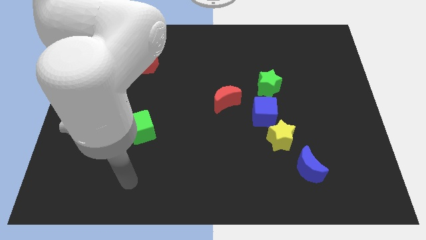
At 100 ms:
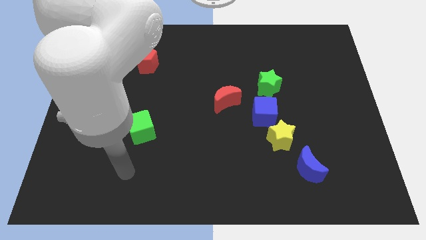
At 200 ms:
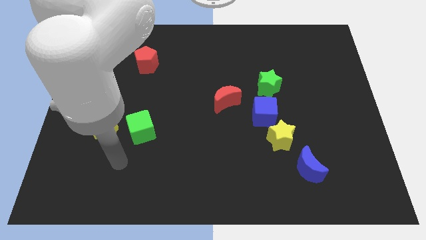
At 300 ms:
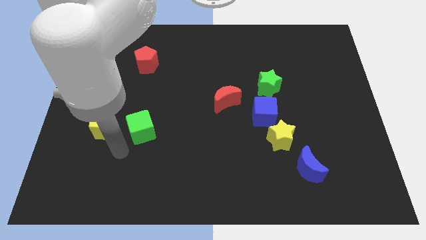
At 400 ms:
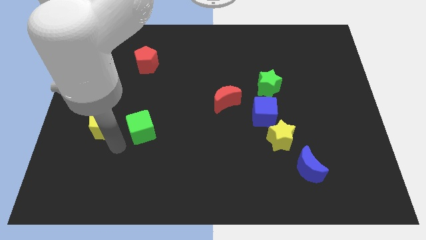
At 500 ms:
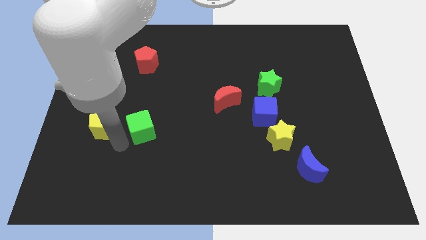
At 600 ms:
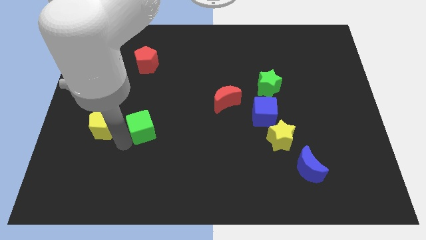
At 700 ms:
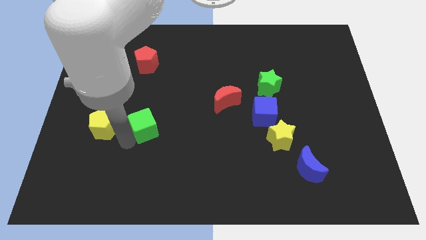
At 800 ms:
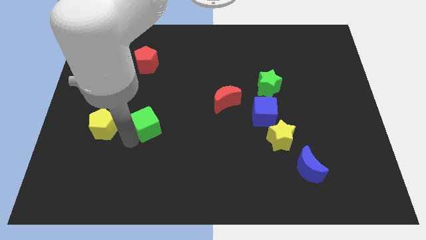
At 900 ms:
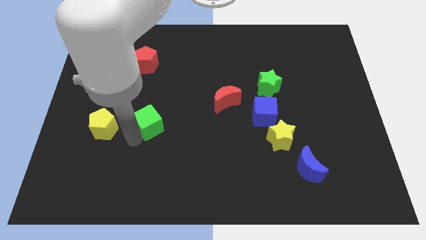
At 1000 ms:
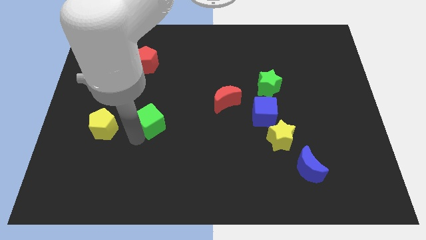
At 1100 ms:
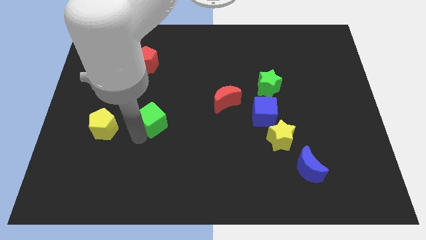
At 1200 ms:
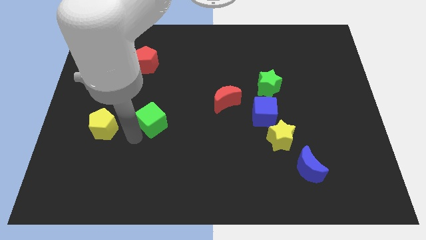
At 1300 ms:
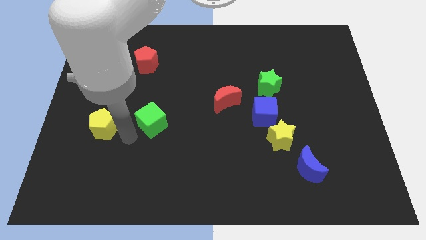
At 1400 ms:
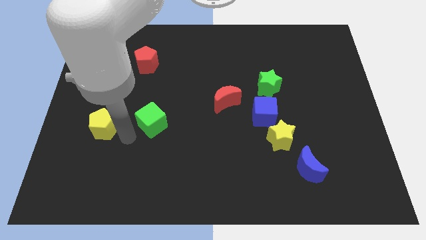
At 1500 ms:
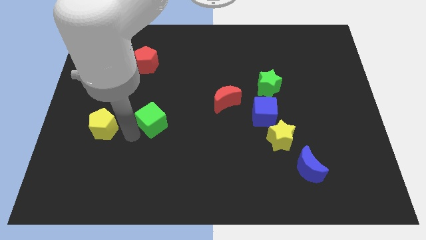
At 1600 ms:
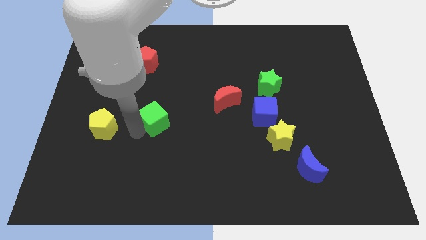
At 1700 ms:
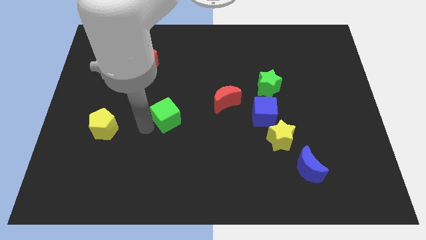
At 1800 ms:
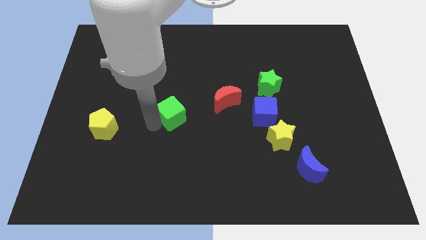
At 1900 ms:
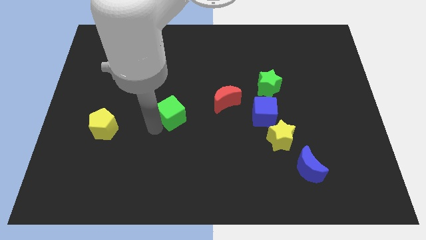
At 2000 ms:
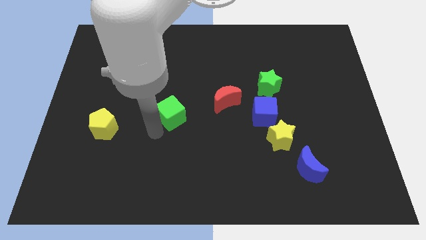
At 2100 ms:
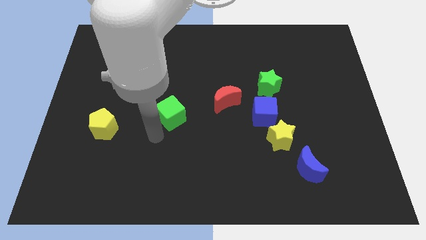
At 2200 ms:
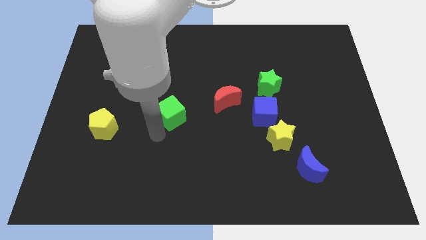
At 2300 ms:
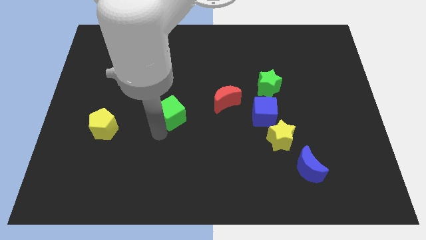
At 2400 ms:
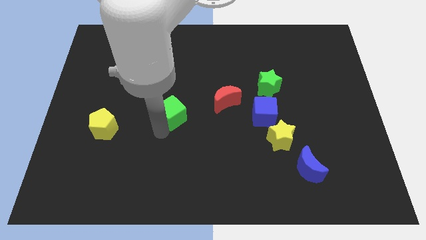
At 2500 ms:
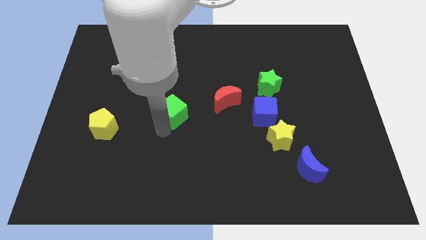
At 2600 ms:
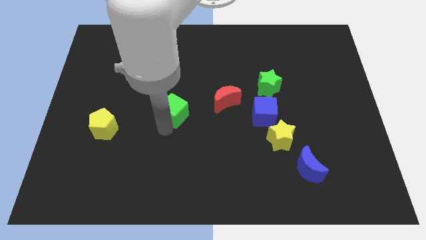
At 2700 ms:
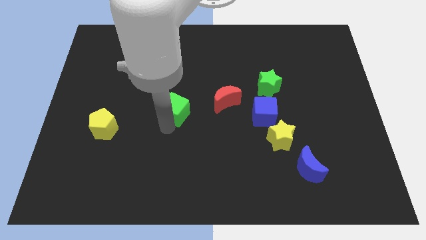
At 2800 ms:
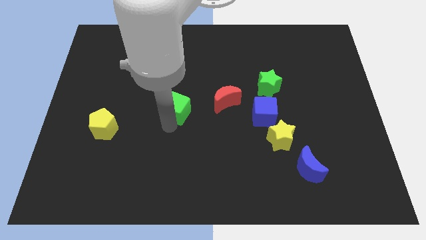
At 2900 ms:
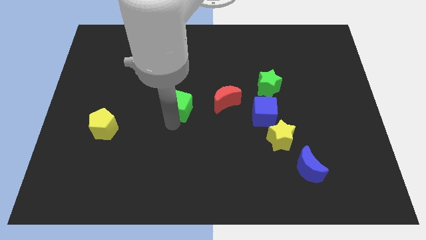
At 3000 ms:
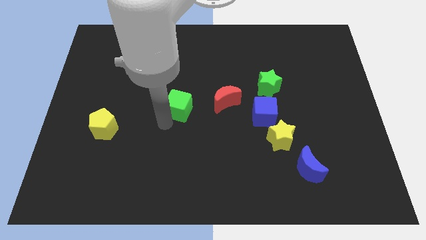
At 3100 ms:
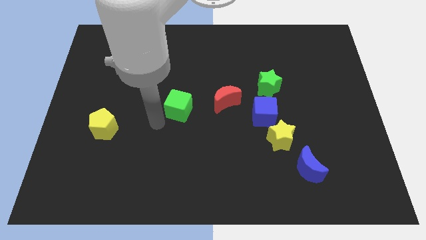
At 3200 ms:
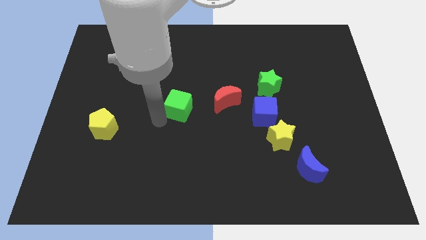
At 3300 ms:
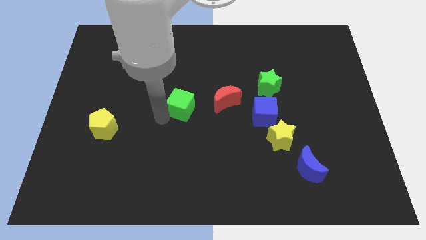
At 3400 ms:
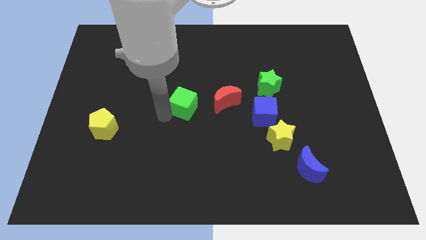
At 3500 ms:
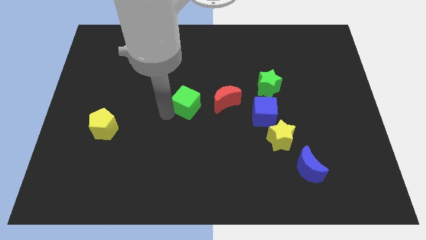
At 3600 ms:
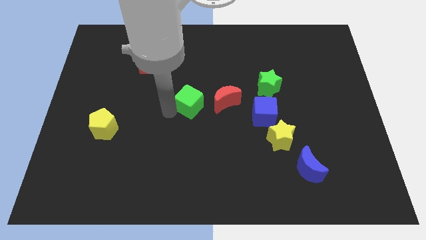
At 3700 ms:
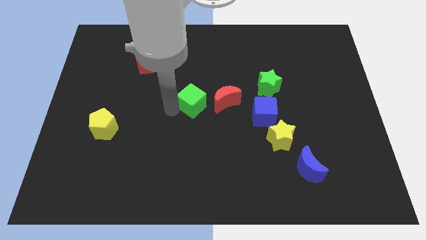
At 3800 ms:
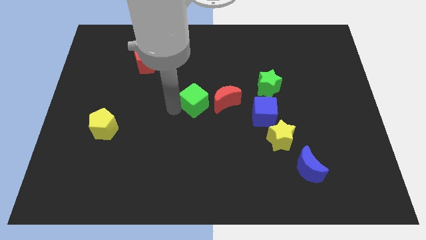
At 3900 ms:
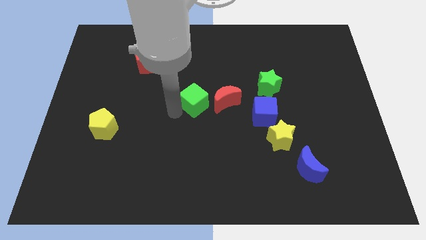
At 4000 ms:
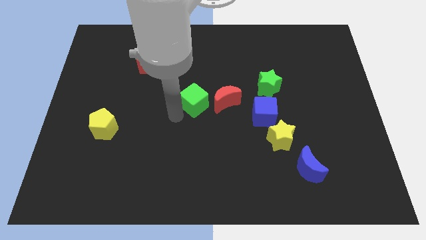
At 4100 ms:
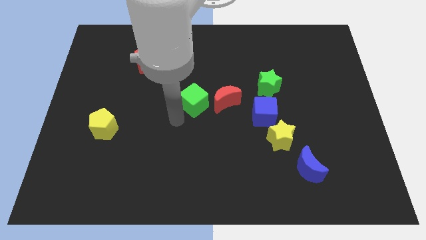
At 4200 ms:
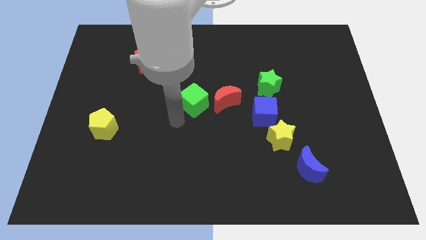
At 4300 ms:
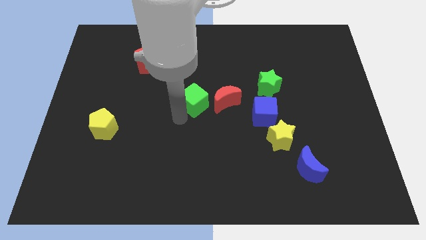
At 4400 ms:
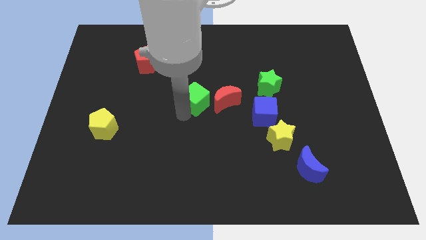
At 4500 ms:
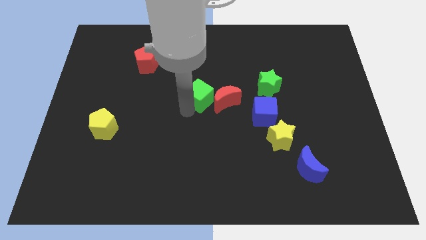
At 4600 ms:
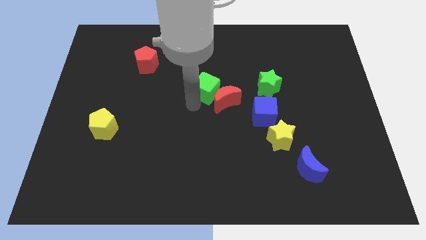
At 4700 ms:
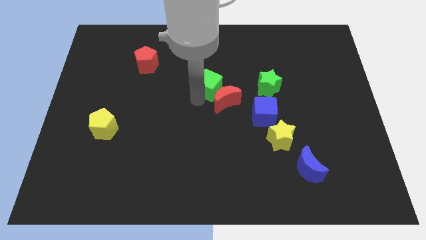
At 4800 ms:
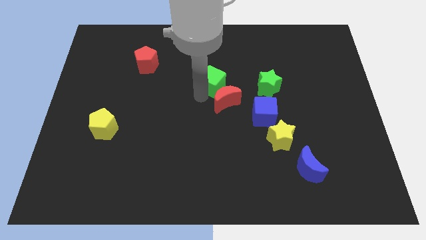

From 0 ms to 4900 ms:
move the green cube diagonally up and right

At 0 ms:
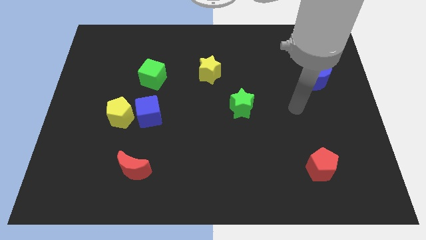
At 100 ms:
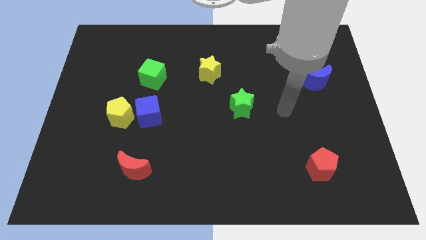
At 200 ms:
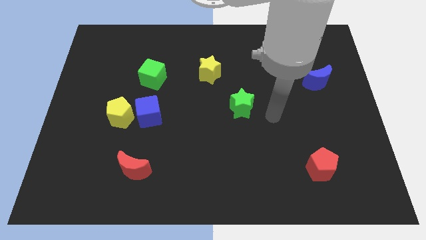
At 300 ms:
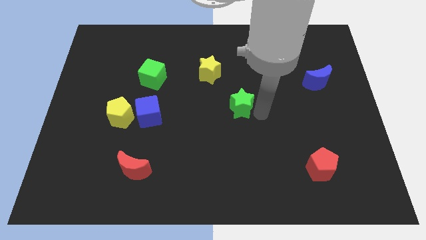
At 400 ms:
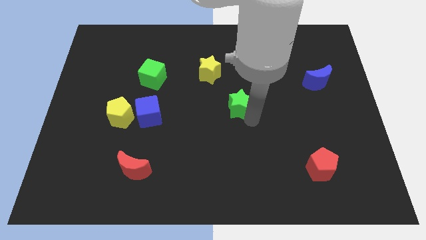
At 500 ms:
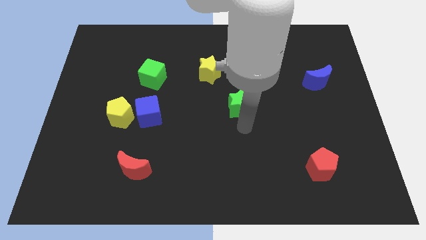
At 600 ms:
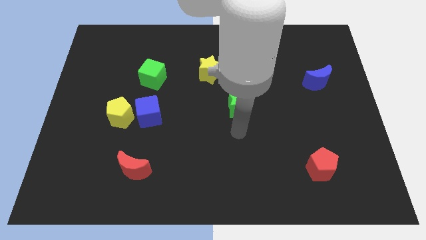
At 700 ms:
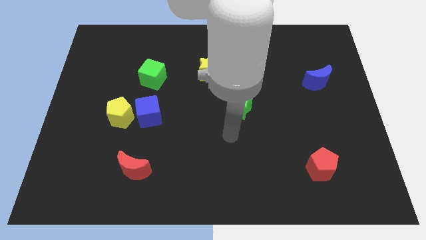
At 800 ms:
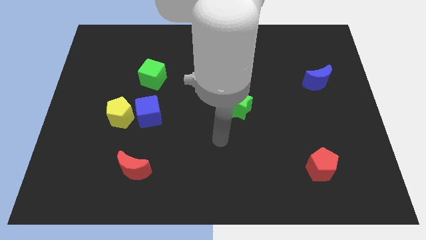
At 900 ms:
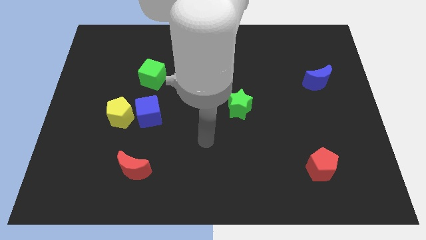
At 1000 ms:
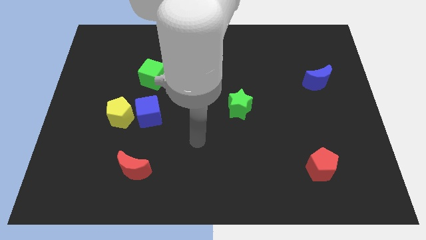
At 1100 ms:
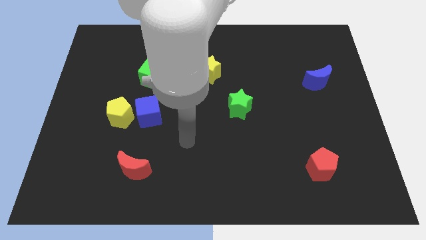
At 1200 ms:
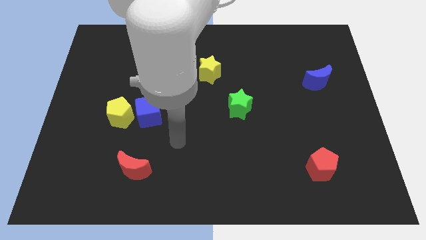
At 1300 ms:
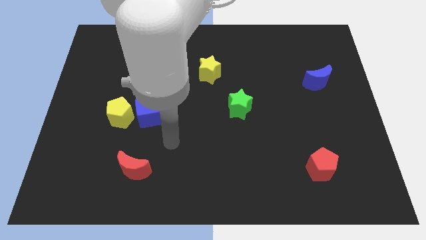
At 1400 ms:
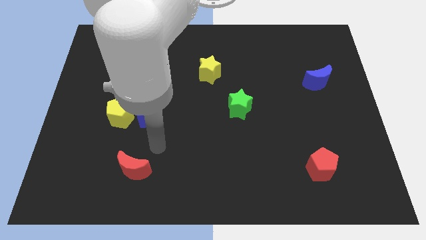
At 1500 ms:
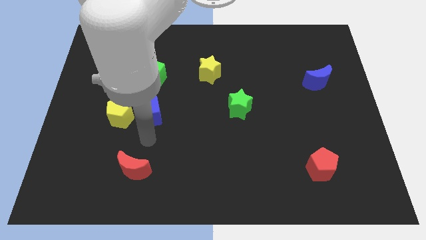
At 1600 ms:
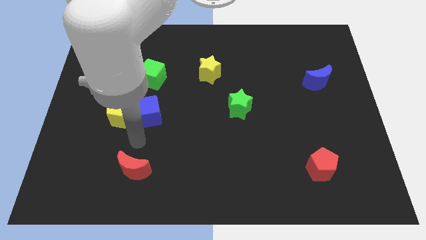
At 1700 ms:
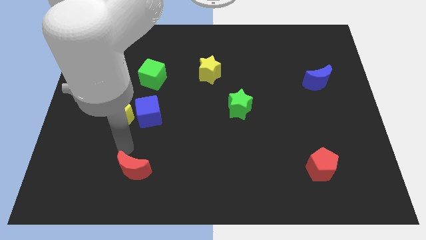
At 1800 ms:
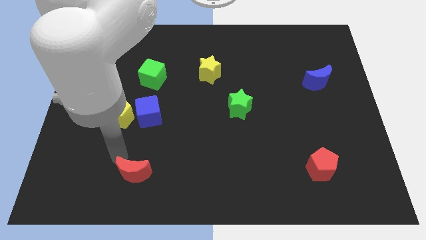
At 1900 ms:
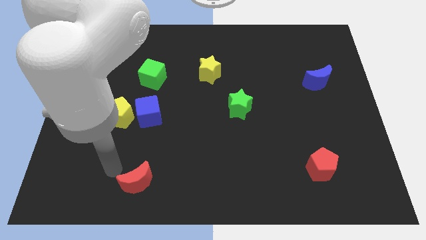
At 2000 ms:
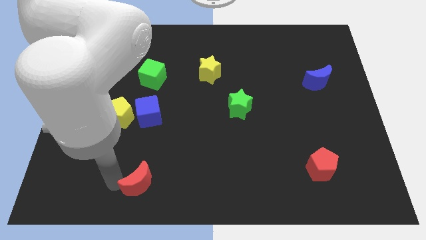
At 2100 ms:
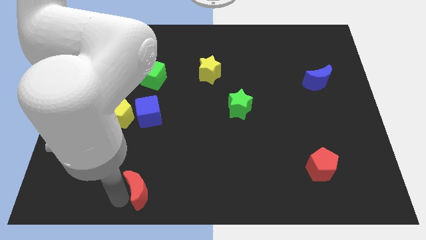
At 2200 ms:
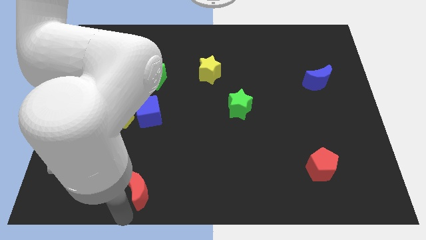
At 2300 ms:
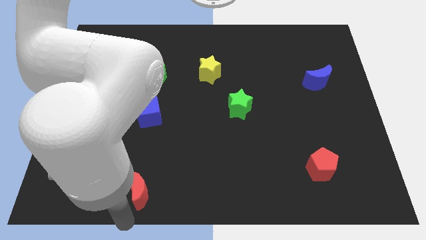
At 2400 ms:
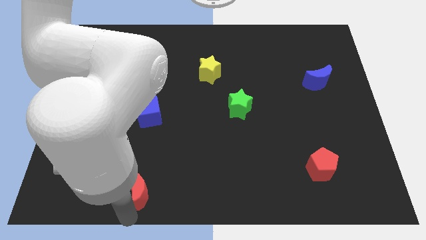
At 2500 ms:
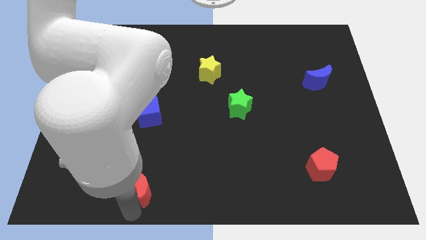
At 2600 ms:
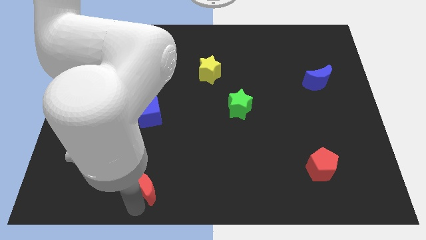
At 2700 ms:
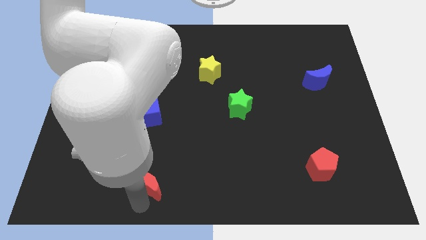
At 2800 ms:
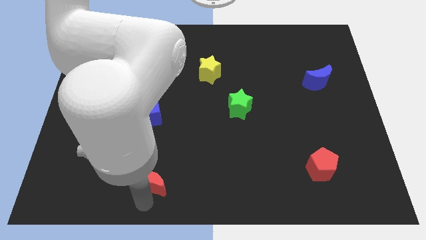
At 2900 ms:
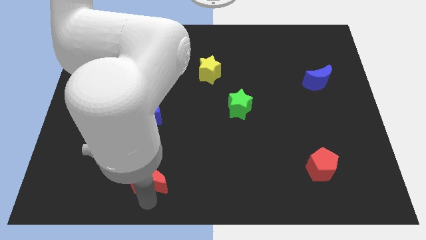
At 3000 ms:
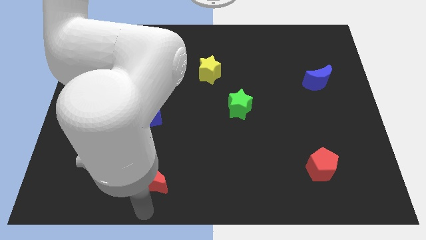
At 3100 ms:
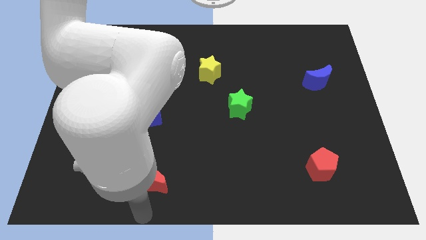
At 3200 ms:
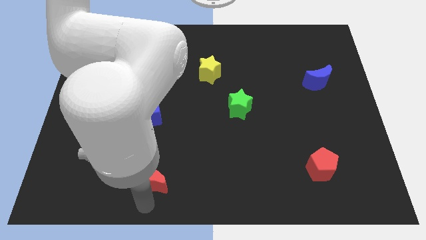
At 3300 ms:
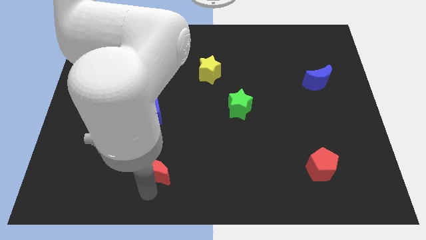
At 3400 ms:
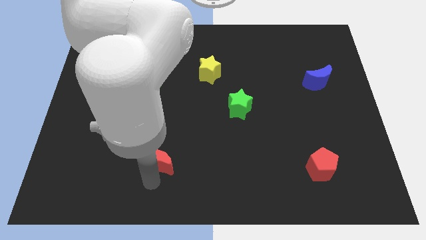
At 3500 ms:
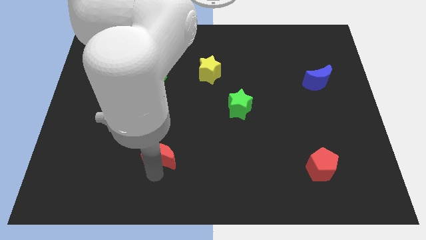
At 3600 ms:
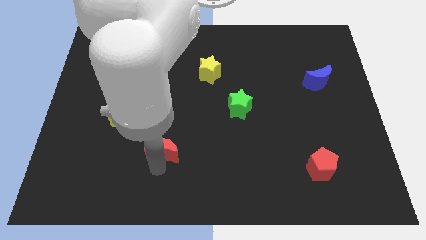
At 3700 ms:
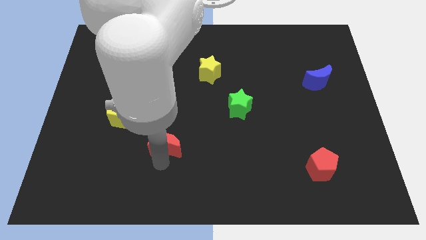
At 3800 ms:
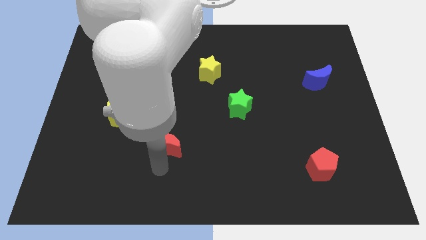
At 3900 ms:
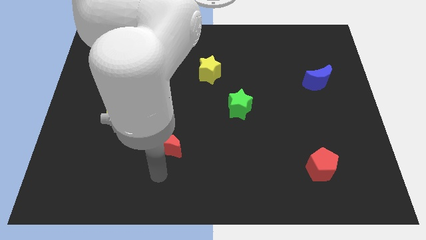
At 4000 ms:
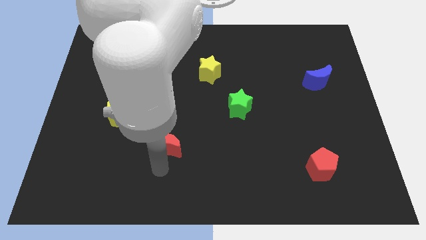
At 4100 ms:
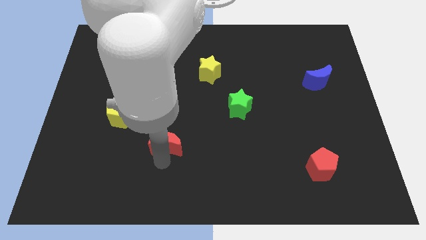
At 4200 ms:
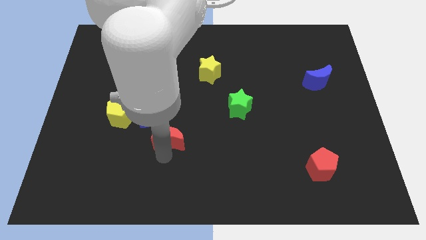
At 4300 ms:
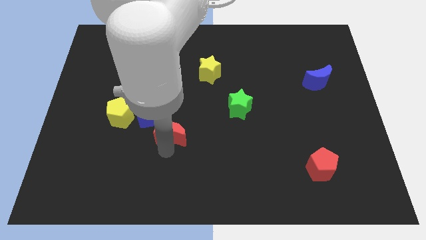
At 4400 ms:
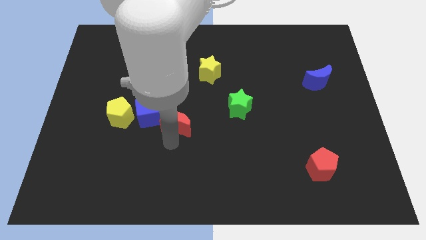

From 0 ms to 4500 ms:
slide the red moon a little up
